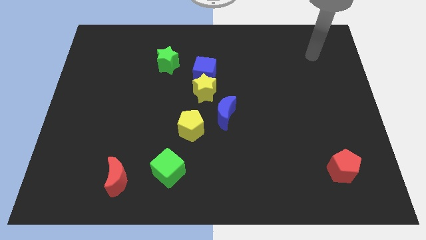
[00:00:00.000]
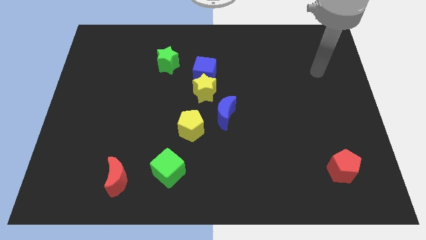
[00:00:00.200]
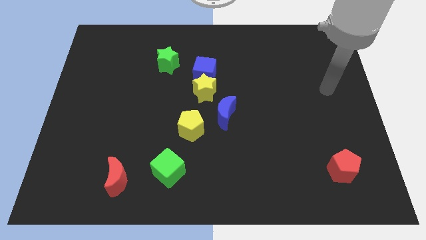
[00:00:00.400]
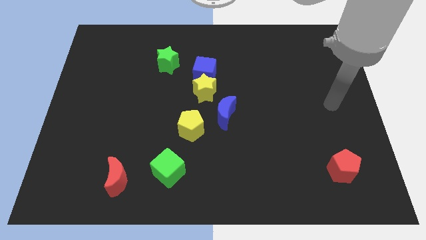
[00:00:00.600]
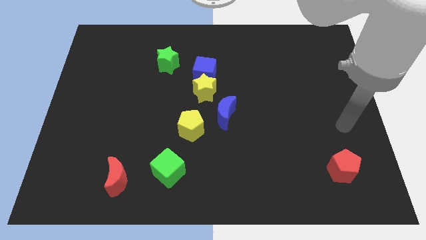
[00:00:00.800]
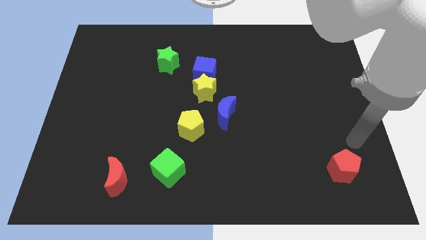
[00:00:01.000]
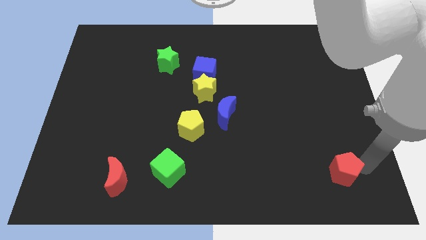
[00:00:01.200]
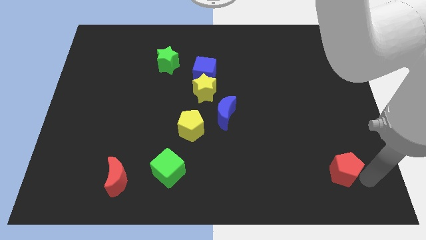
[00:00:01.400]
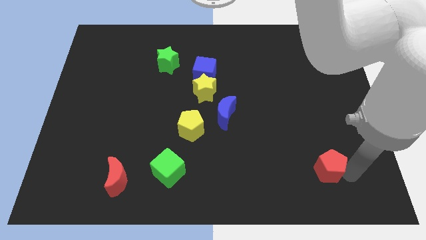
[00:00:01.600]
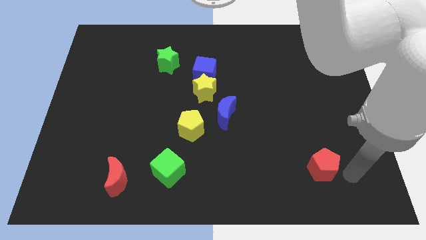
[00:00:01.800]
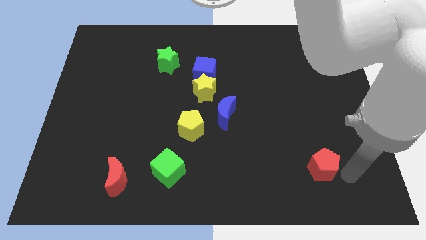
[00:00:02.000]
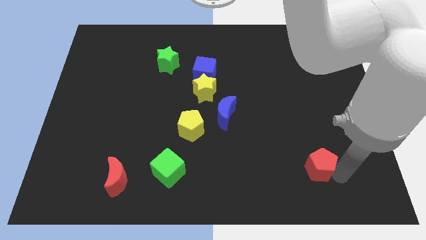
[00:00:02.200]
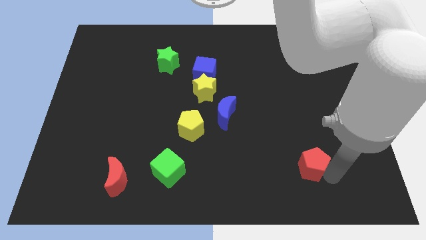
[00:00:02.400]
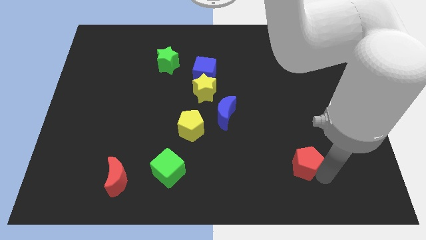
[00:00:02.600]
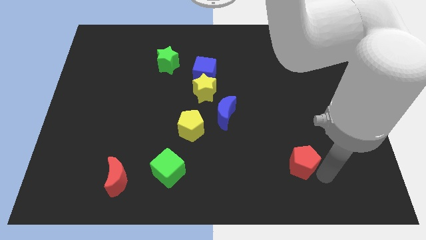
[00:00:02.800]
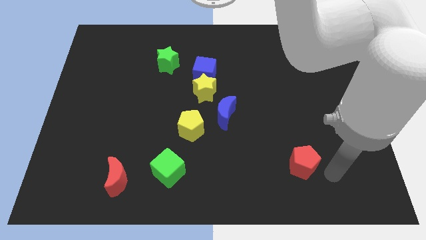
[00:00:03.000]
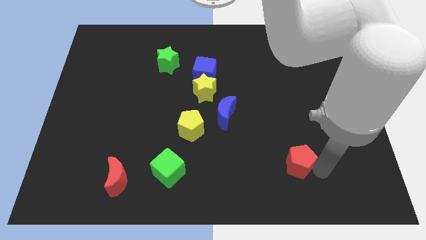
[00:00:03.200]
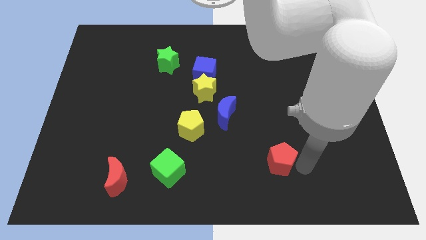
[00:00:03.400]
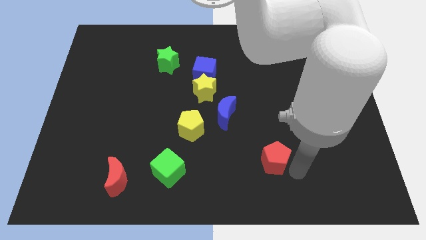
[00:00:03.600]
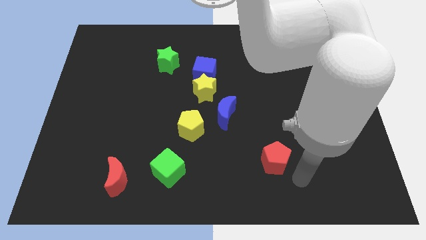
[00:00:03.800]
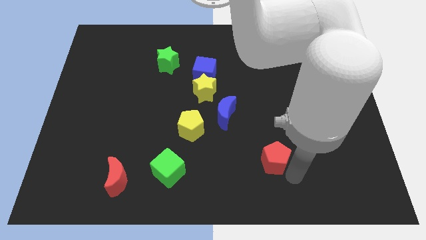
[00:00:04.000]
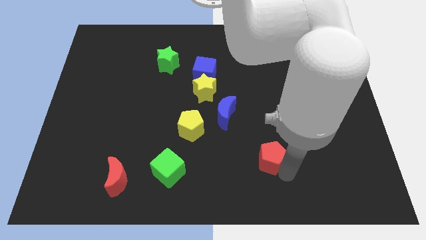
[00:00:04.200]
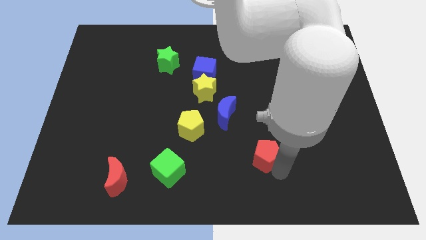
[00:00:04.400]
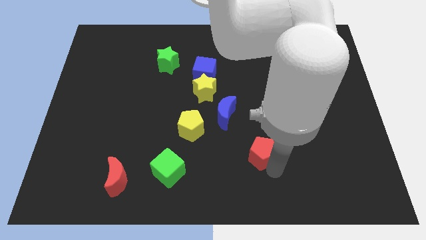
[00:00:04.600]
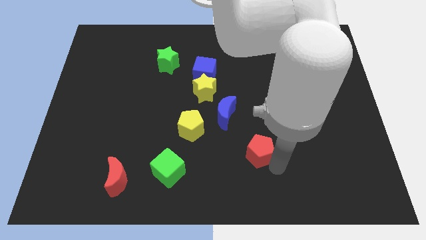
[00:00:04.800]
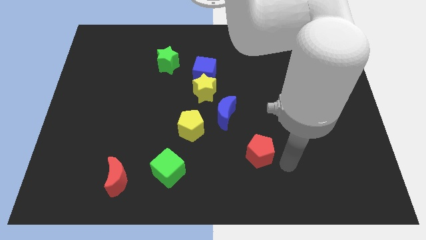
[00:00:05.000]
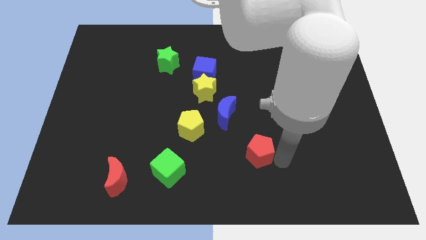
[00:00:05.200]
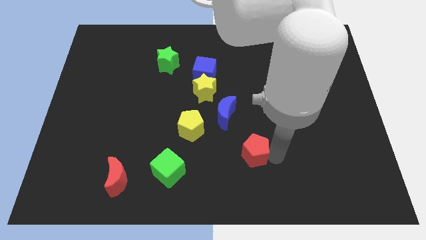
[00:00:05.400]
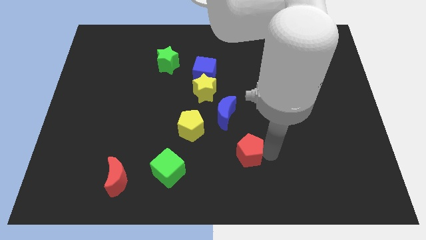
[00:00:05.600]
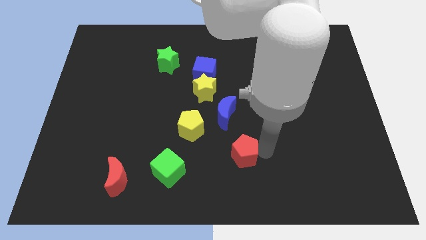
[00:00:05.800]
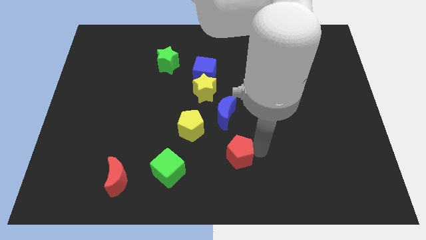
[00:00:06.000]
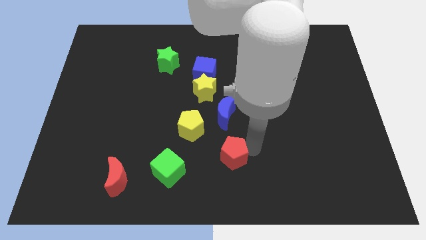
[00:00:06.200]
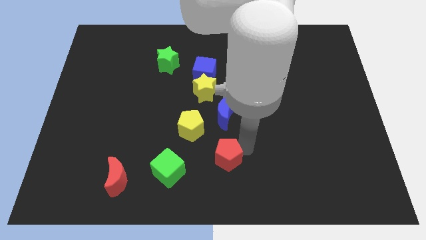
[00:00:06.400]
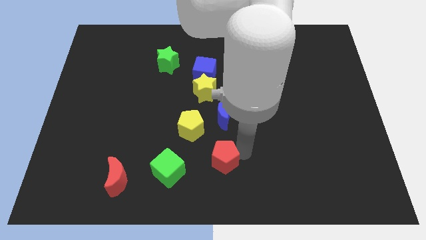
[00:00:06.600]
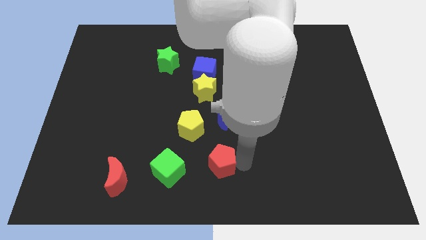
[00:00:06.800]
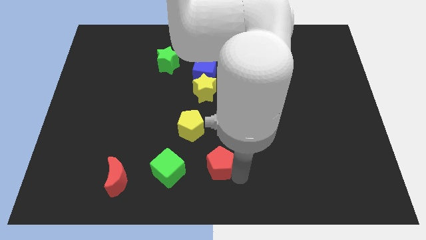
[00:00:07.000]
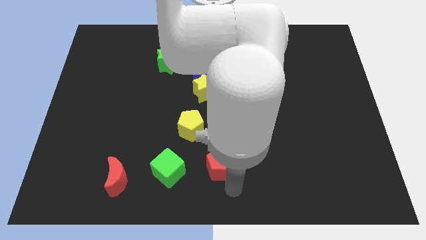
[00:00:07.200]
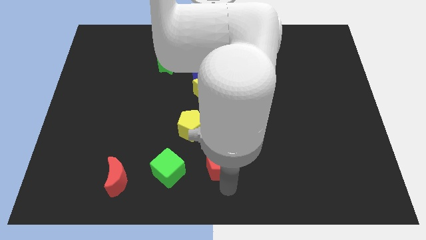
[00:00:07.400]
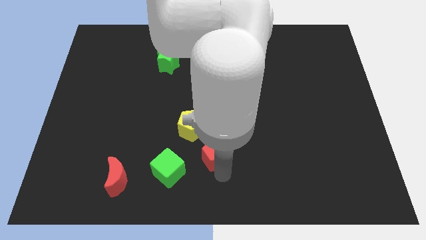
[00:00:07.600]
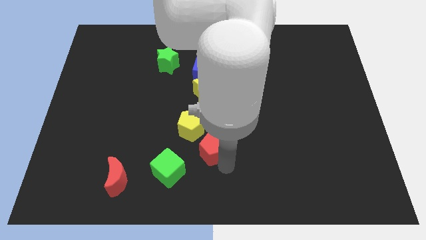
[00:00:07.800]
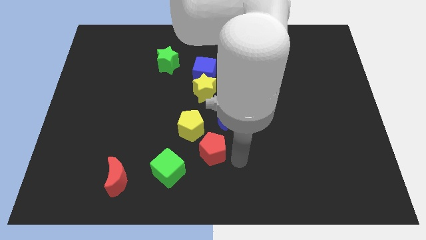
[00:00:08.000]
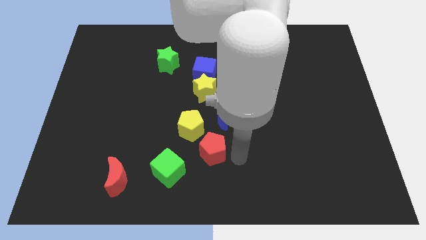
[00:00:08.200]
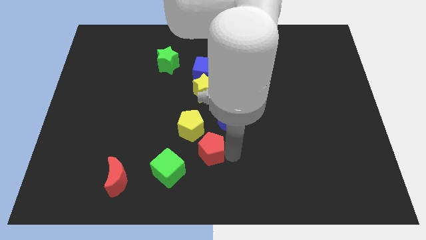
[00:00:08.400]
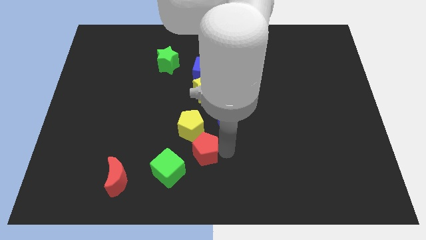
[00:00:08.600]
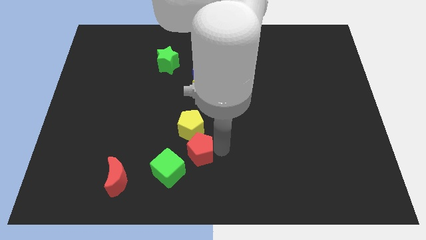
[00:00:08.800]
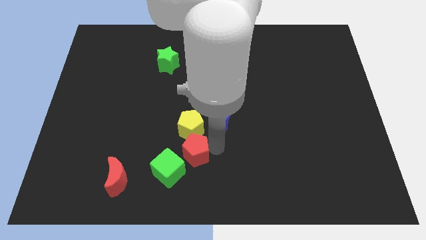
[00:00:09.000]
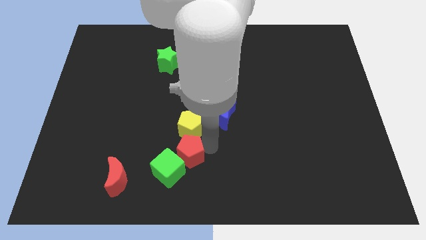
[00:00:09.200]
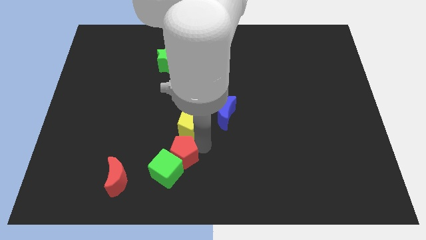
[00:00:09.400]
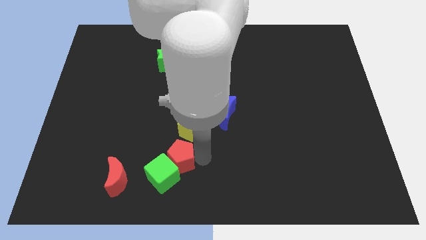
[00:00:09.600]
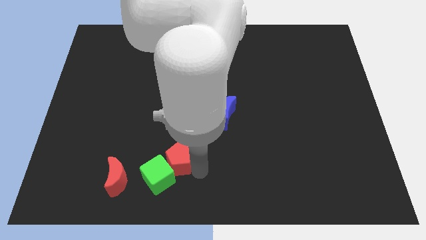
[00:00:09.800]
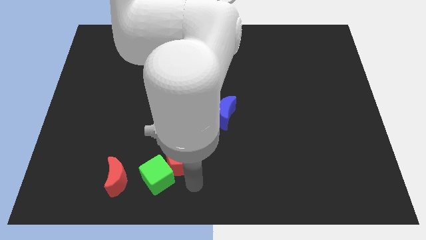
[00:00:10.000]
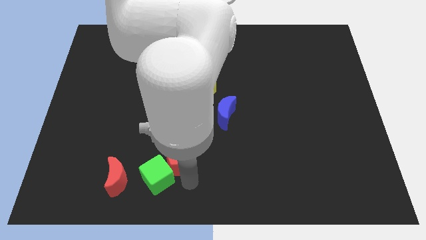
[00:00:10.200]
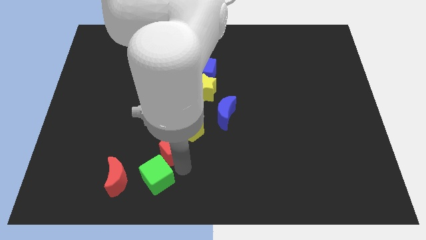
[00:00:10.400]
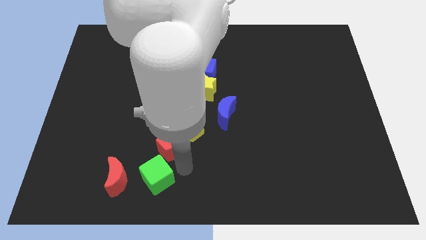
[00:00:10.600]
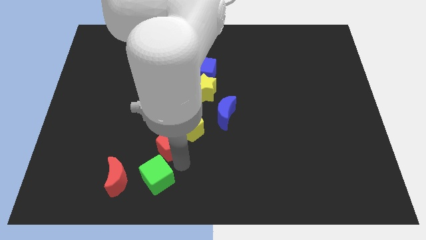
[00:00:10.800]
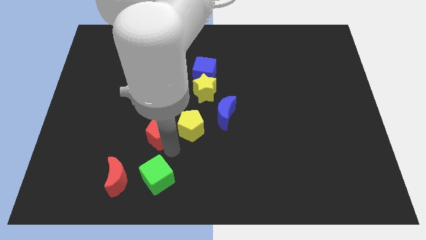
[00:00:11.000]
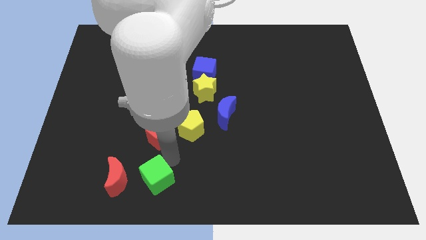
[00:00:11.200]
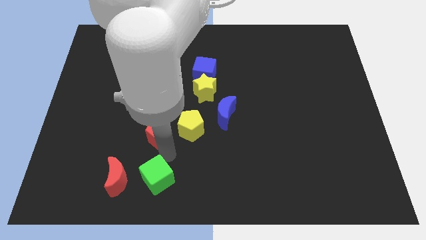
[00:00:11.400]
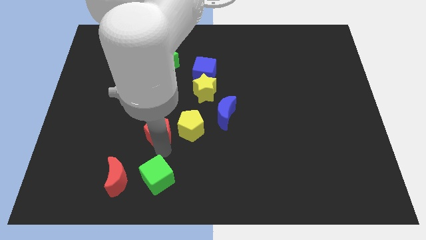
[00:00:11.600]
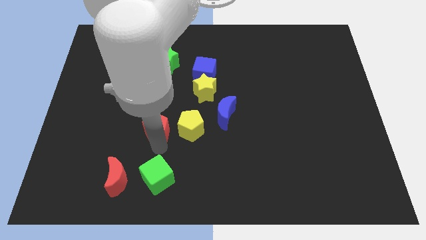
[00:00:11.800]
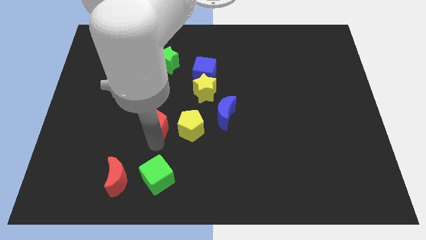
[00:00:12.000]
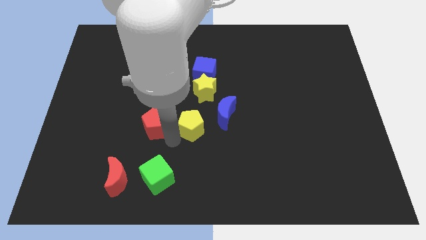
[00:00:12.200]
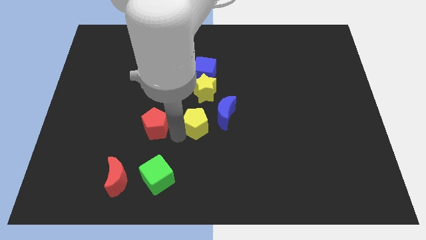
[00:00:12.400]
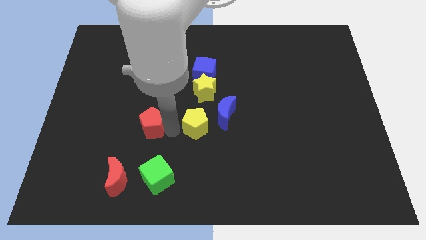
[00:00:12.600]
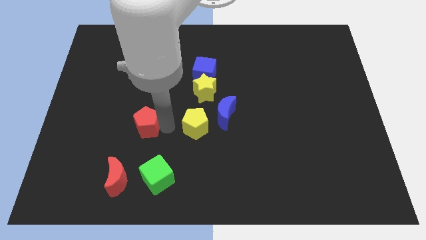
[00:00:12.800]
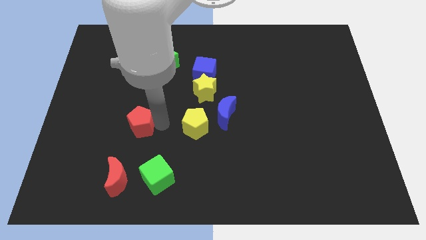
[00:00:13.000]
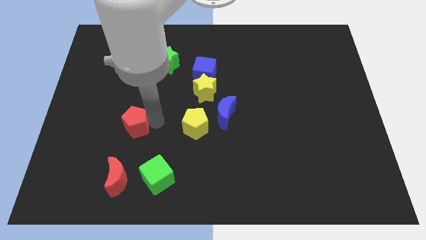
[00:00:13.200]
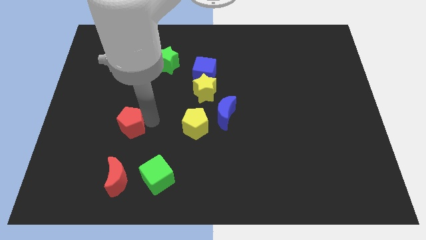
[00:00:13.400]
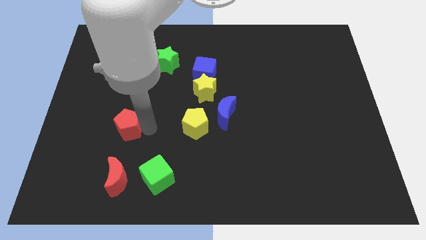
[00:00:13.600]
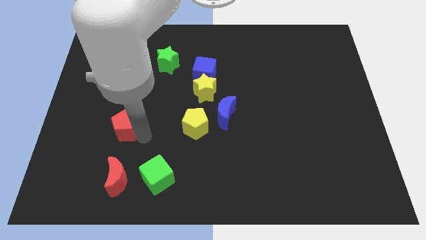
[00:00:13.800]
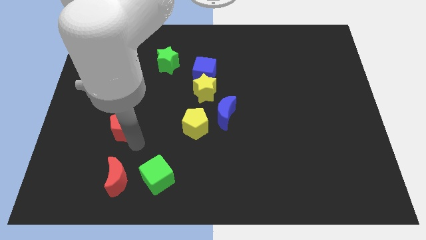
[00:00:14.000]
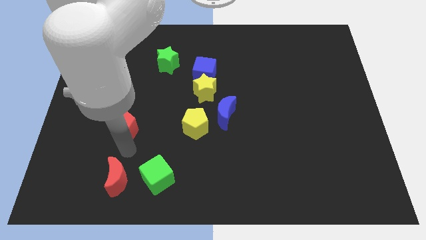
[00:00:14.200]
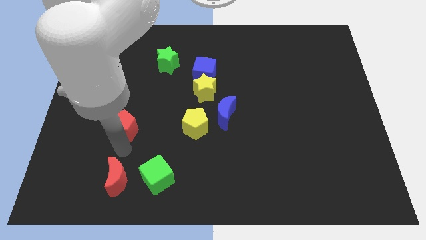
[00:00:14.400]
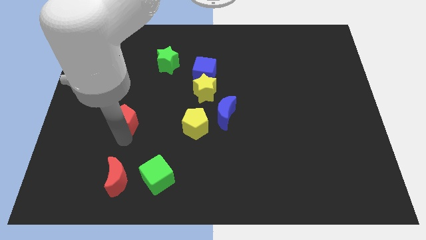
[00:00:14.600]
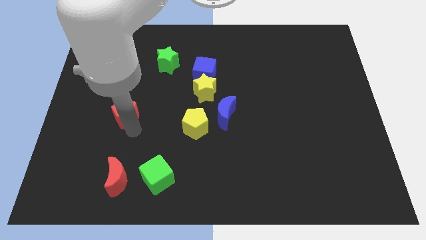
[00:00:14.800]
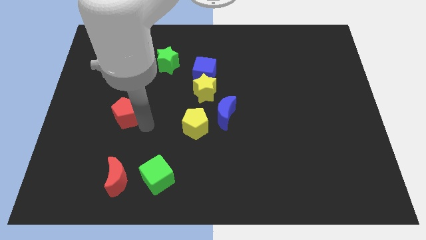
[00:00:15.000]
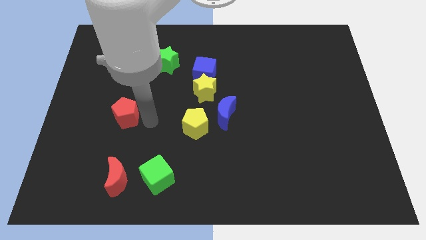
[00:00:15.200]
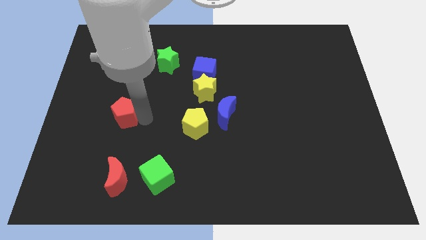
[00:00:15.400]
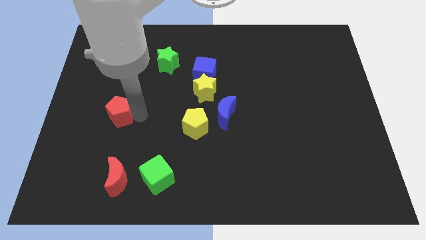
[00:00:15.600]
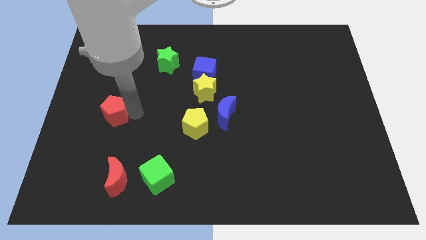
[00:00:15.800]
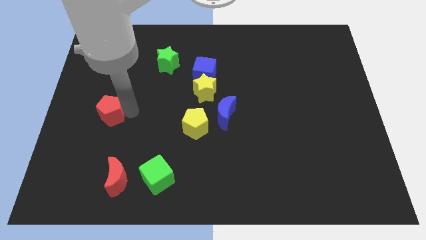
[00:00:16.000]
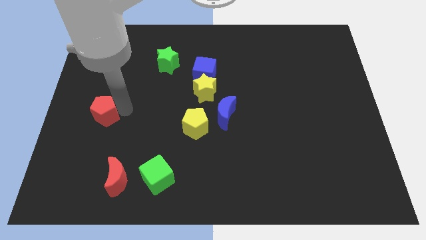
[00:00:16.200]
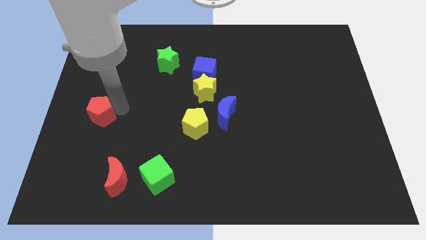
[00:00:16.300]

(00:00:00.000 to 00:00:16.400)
move the red pentagon to the center left
